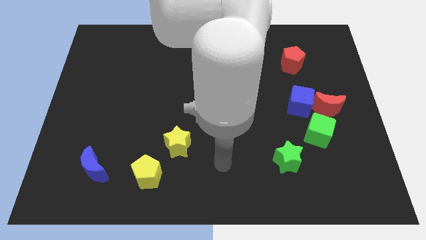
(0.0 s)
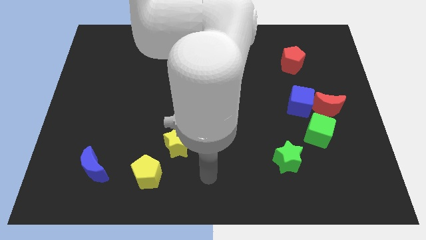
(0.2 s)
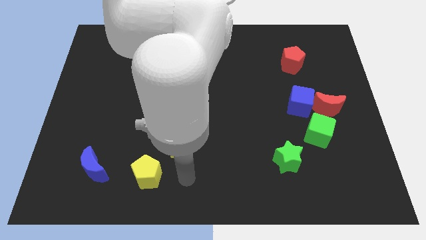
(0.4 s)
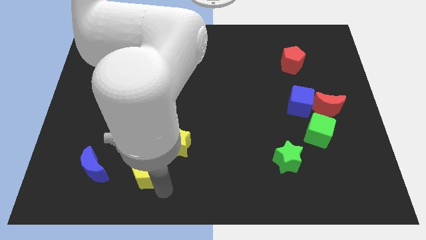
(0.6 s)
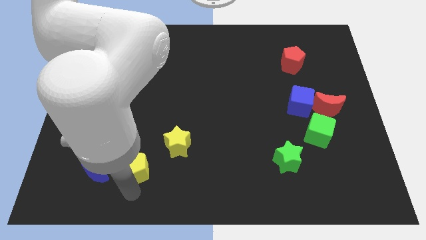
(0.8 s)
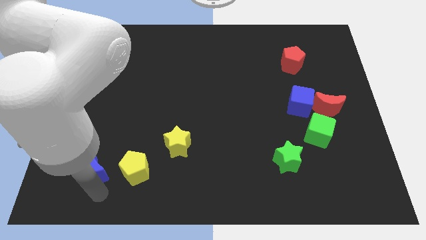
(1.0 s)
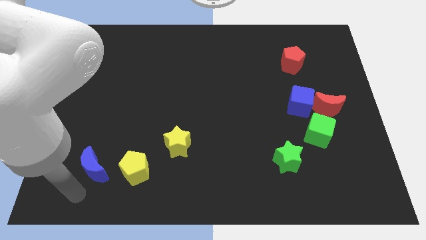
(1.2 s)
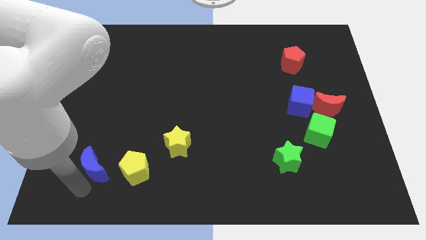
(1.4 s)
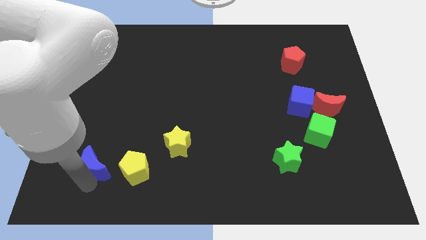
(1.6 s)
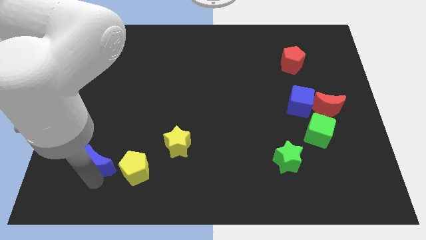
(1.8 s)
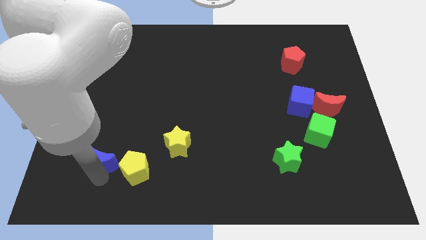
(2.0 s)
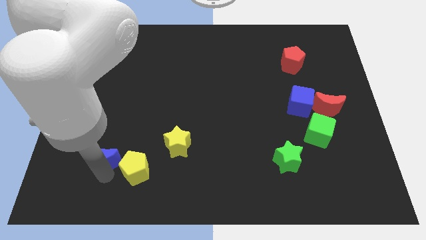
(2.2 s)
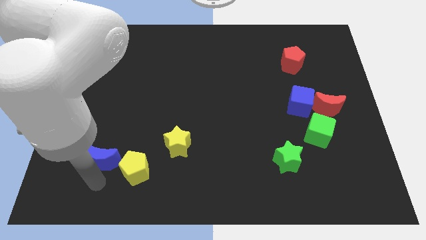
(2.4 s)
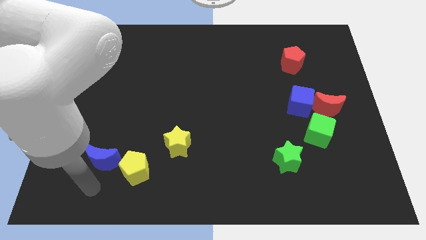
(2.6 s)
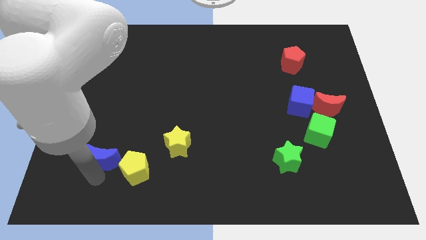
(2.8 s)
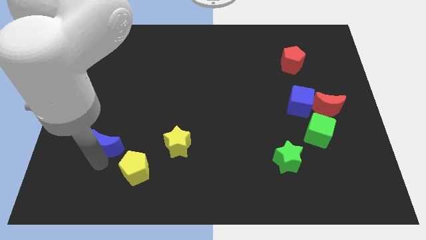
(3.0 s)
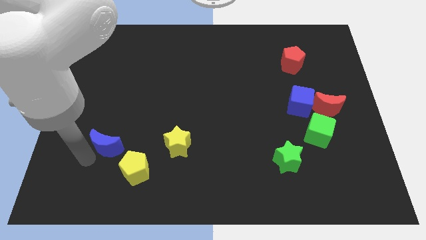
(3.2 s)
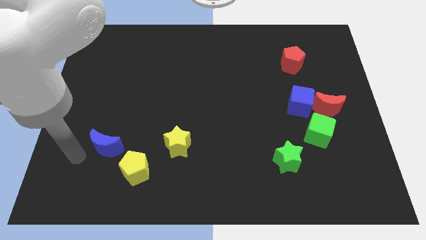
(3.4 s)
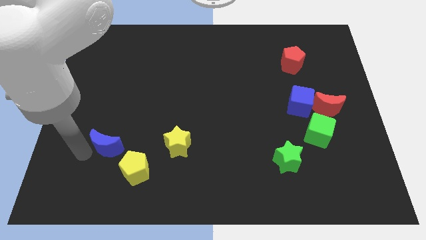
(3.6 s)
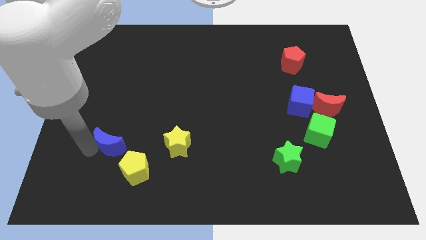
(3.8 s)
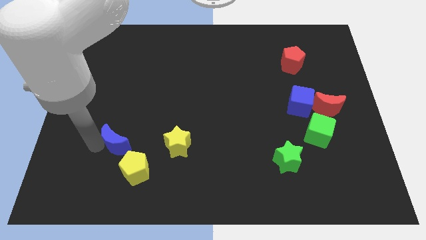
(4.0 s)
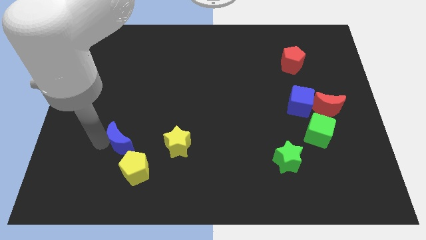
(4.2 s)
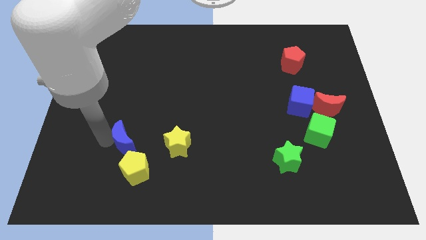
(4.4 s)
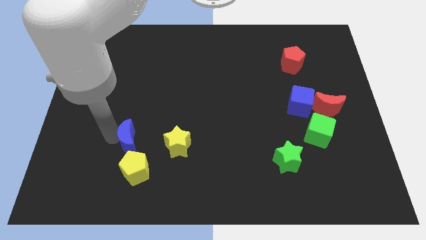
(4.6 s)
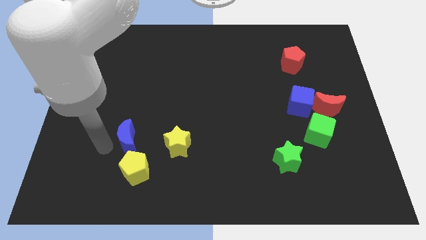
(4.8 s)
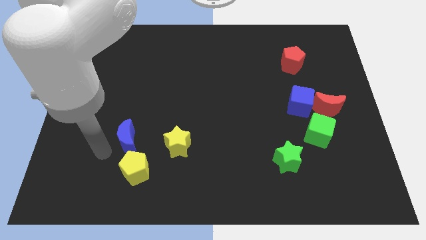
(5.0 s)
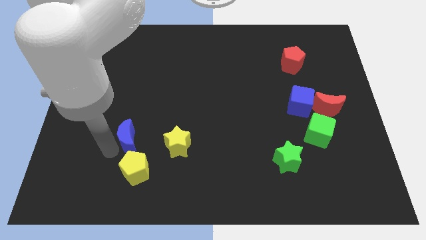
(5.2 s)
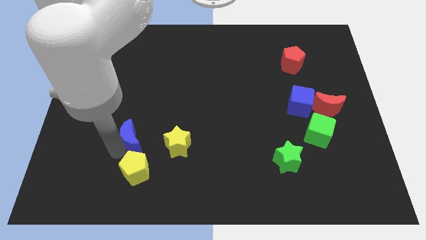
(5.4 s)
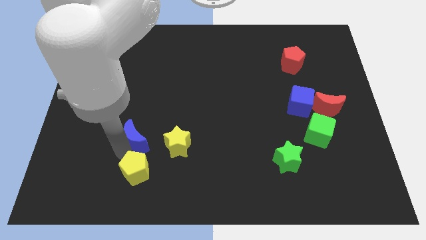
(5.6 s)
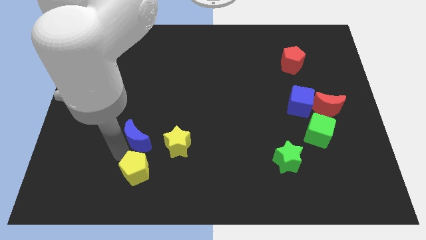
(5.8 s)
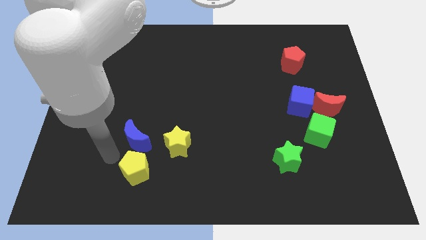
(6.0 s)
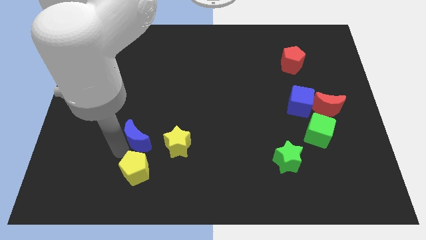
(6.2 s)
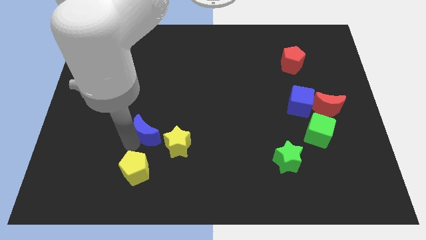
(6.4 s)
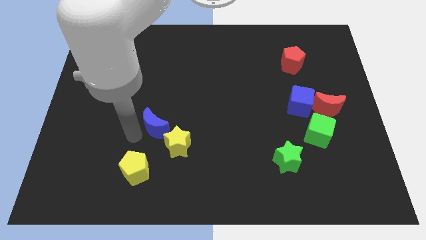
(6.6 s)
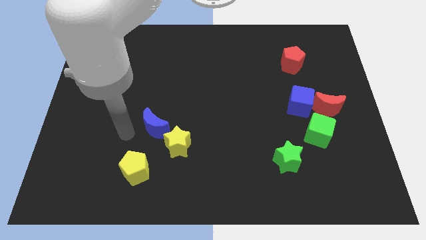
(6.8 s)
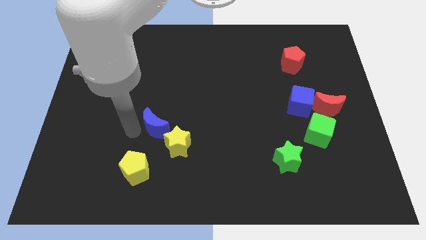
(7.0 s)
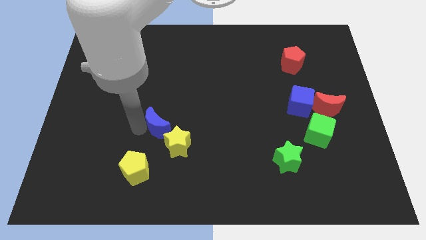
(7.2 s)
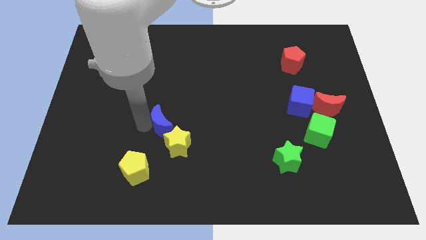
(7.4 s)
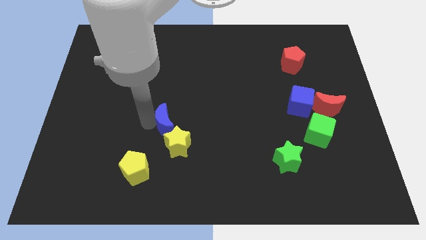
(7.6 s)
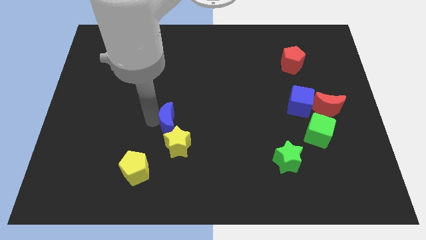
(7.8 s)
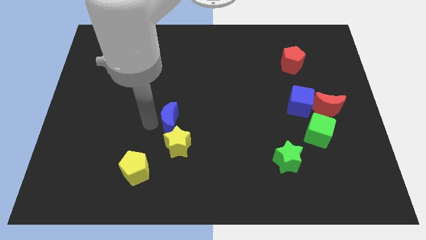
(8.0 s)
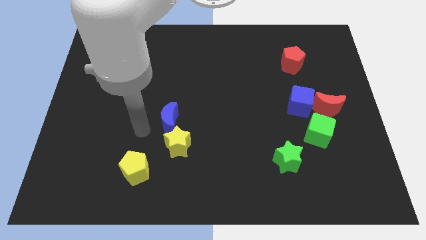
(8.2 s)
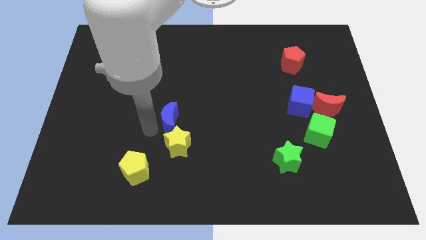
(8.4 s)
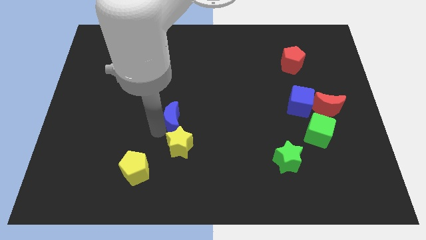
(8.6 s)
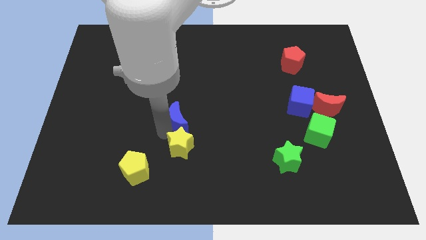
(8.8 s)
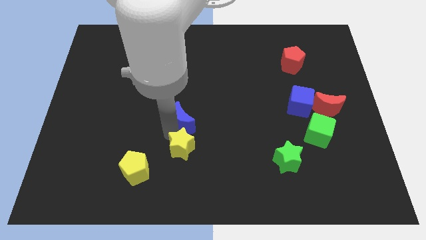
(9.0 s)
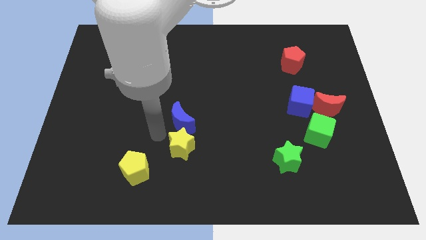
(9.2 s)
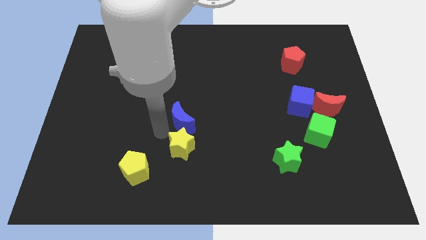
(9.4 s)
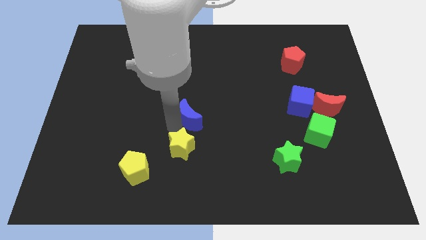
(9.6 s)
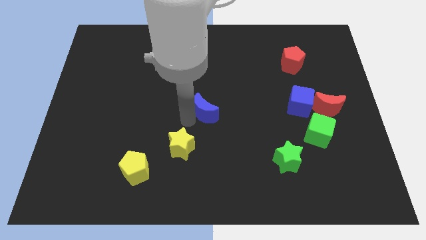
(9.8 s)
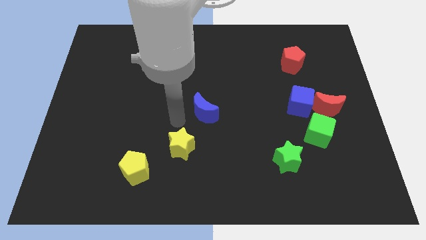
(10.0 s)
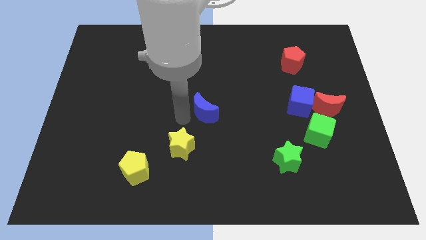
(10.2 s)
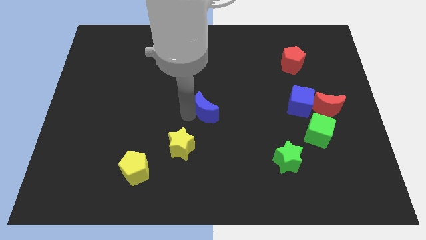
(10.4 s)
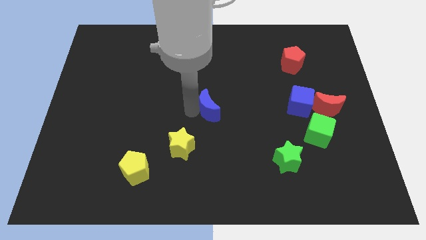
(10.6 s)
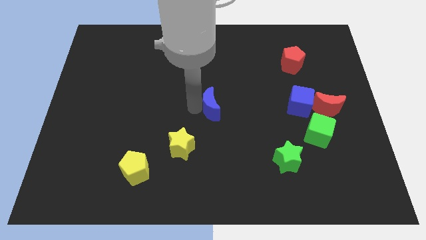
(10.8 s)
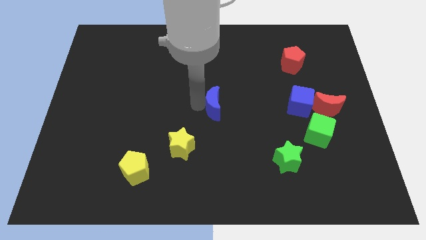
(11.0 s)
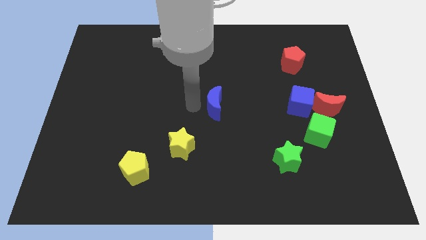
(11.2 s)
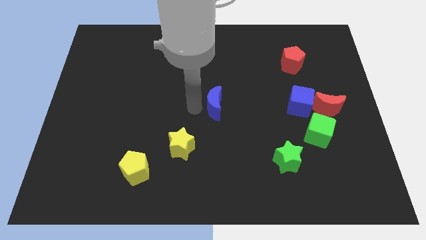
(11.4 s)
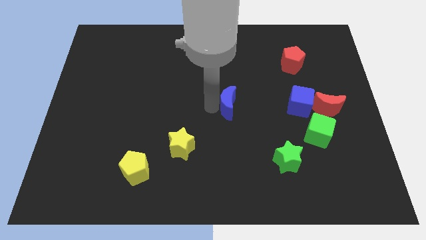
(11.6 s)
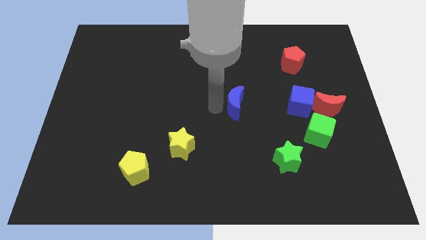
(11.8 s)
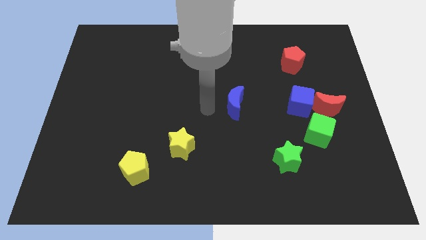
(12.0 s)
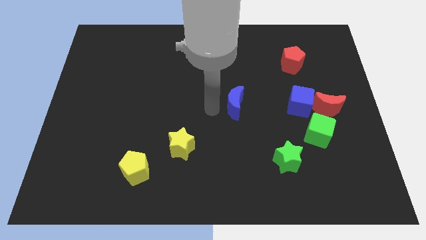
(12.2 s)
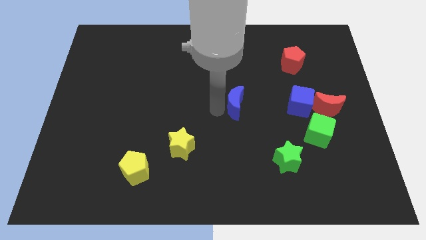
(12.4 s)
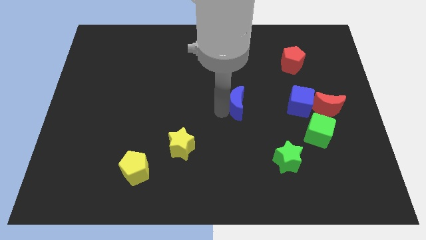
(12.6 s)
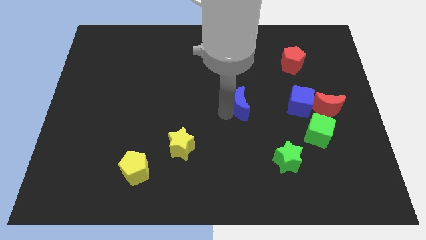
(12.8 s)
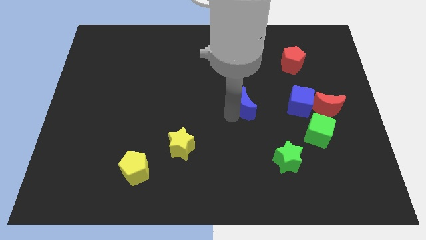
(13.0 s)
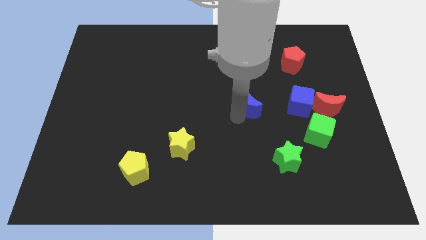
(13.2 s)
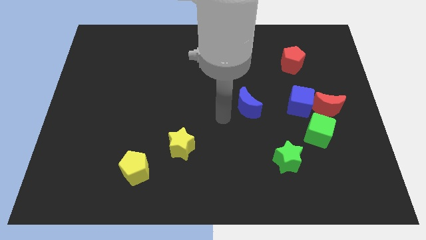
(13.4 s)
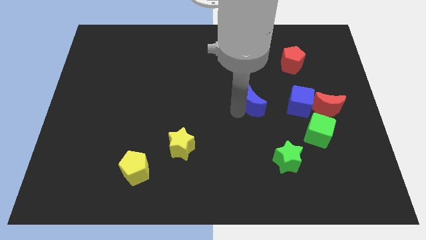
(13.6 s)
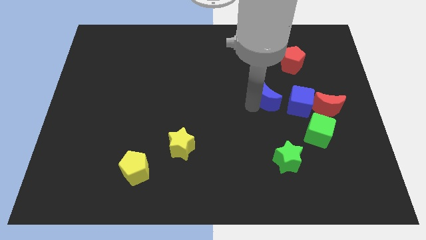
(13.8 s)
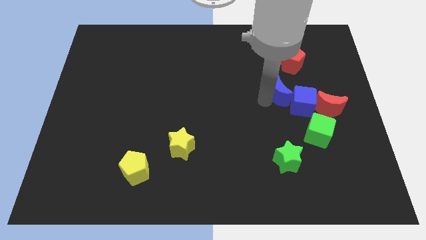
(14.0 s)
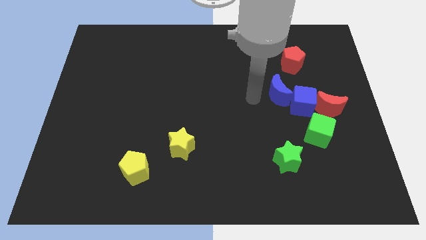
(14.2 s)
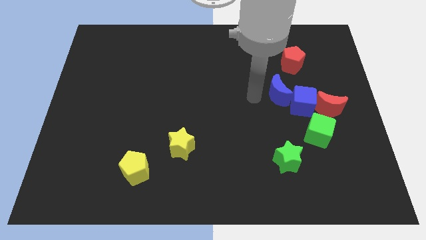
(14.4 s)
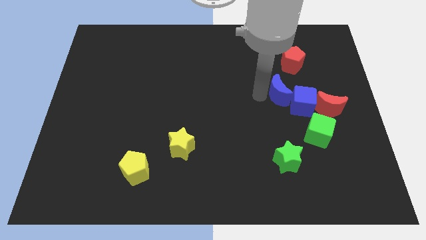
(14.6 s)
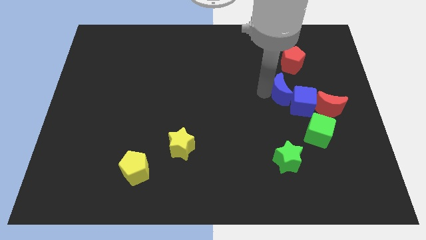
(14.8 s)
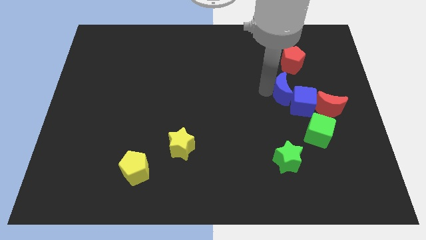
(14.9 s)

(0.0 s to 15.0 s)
put the blue moon diagonally up and to the left of the red moon
